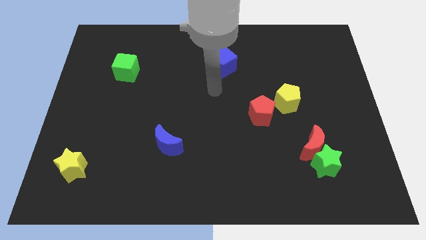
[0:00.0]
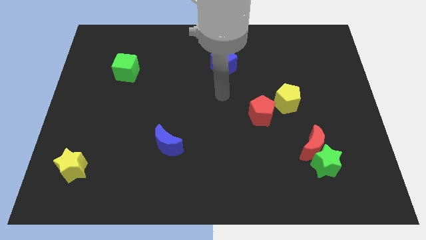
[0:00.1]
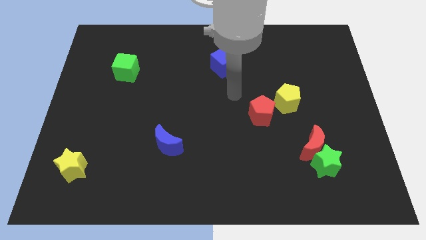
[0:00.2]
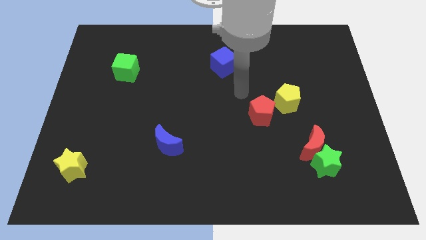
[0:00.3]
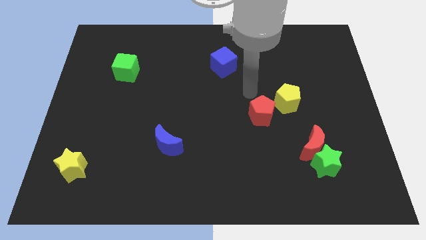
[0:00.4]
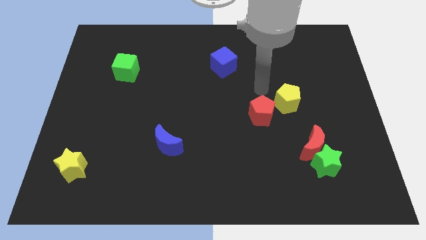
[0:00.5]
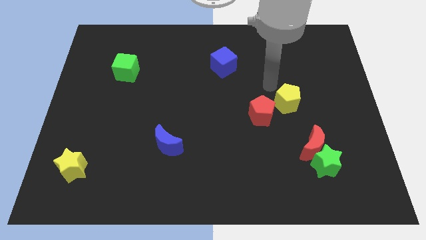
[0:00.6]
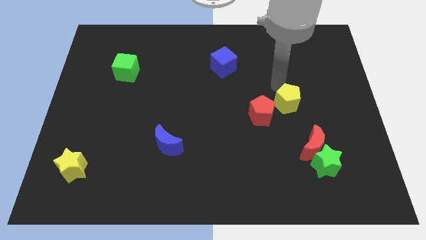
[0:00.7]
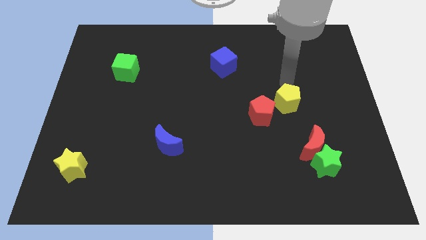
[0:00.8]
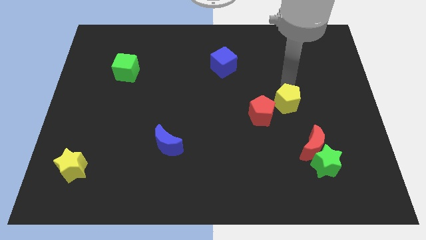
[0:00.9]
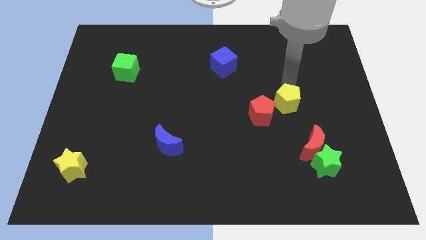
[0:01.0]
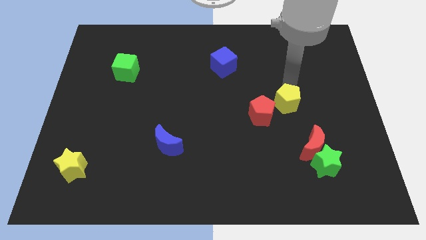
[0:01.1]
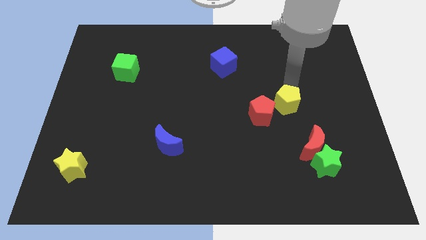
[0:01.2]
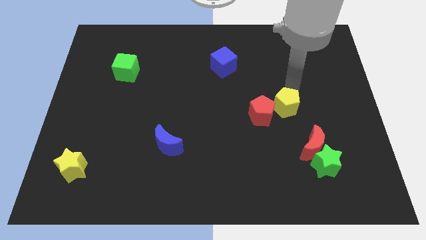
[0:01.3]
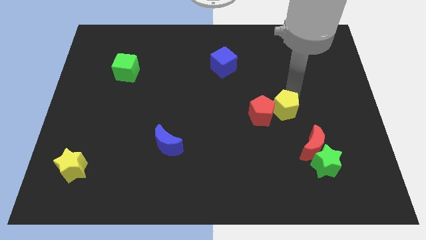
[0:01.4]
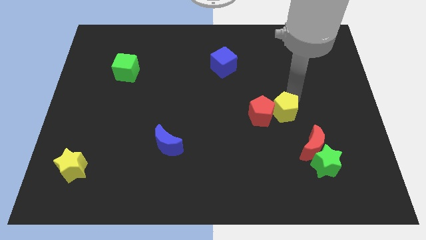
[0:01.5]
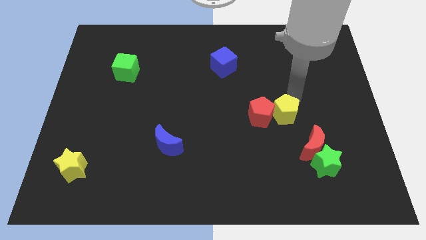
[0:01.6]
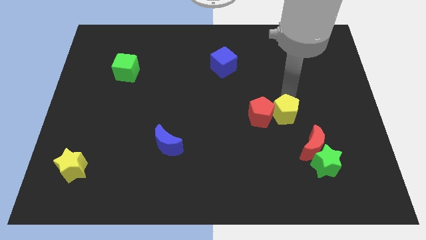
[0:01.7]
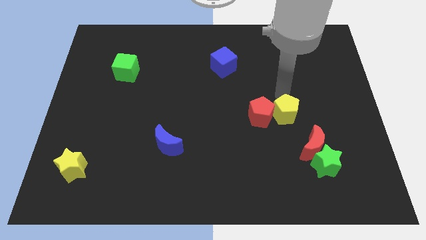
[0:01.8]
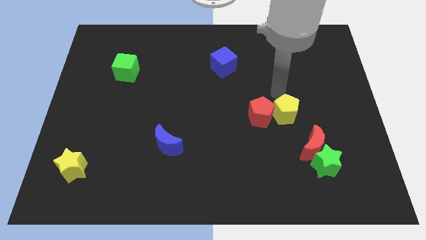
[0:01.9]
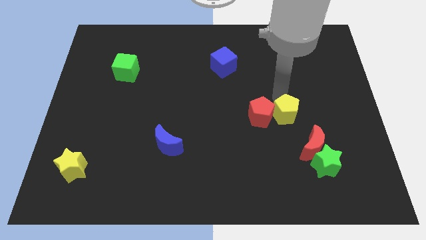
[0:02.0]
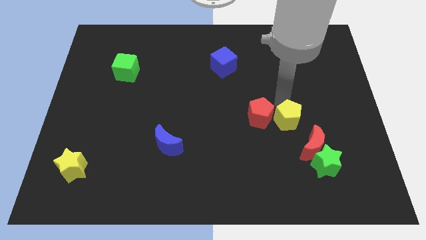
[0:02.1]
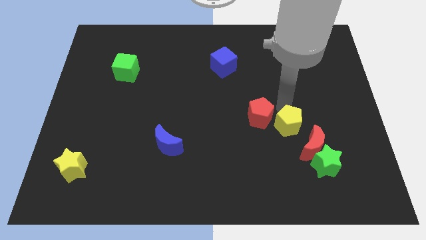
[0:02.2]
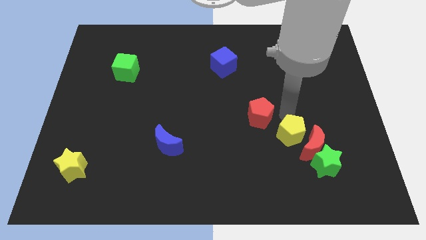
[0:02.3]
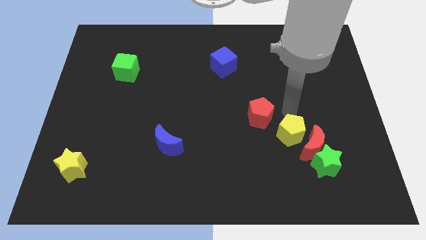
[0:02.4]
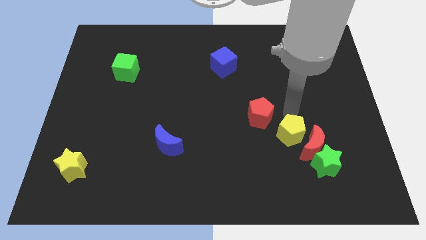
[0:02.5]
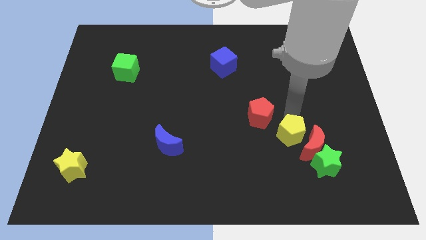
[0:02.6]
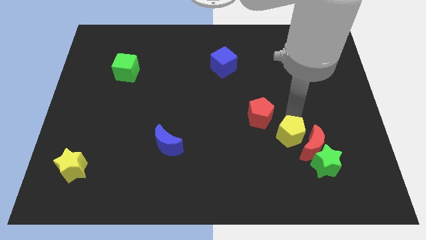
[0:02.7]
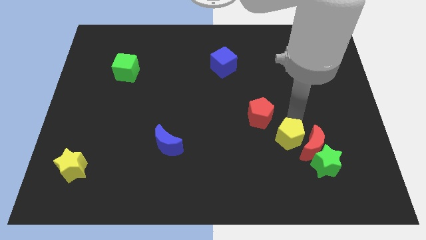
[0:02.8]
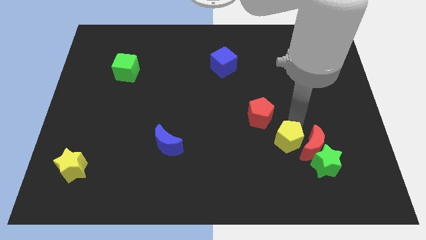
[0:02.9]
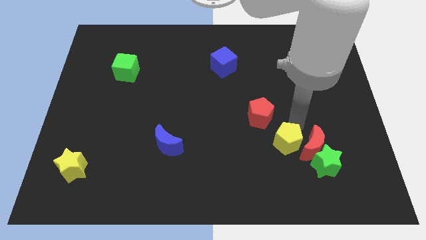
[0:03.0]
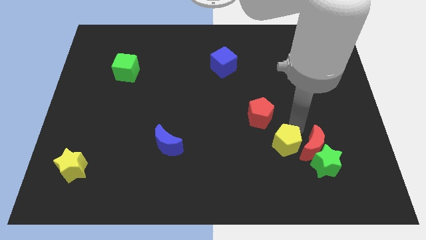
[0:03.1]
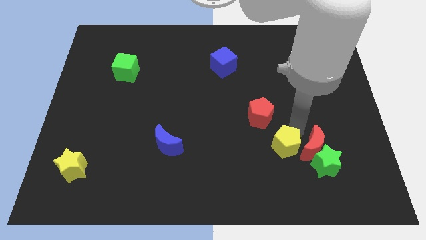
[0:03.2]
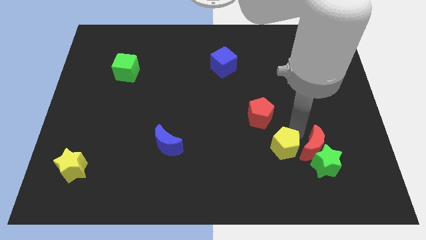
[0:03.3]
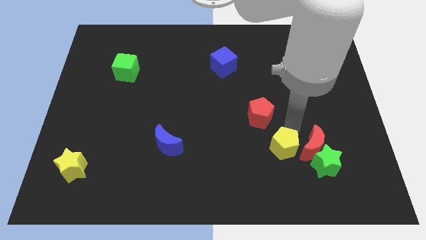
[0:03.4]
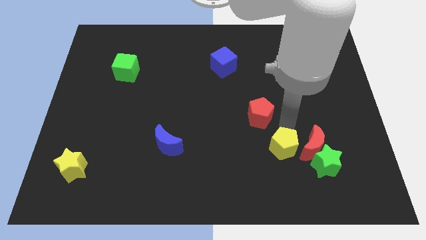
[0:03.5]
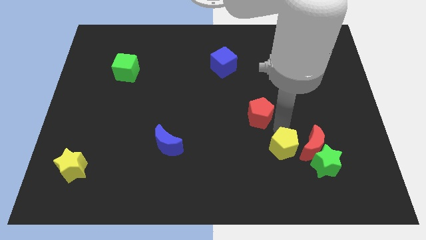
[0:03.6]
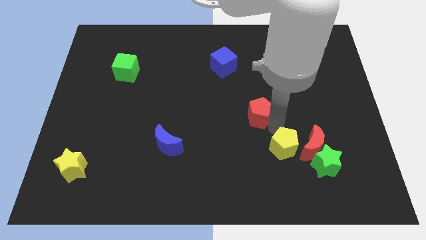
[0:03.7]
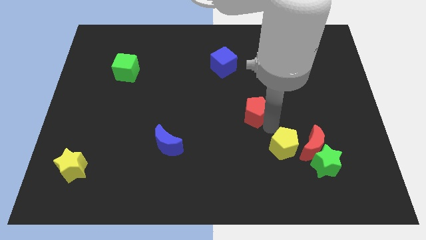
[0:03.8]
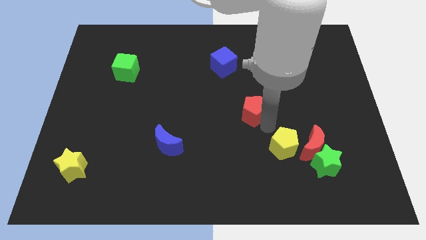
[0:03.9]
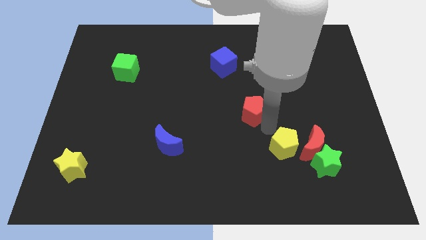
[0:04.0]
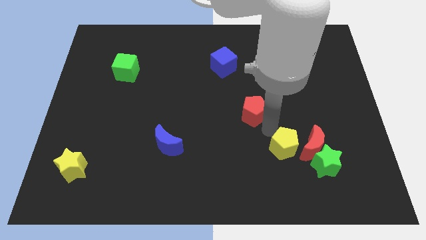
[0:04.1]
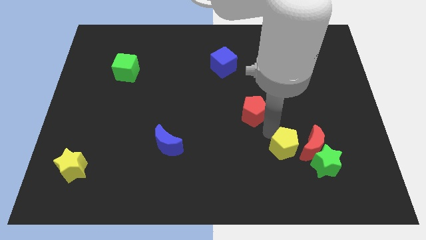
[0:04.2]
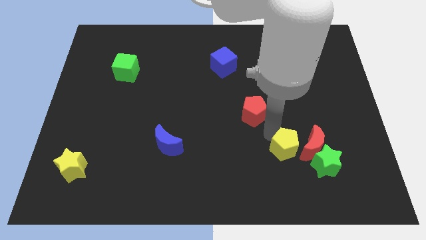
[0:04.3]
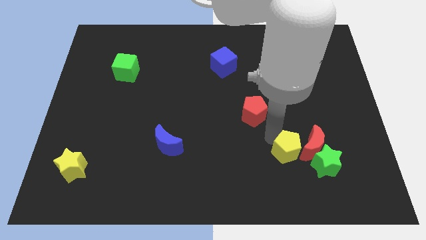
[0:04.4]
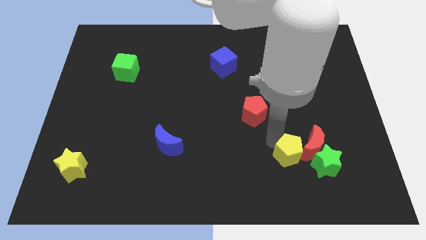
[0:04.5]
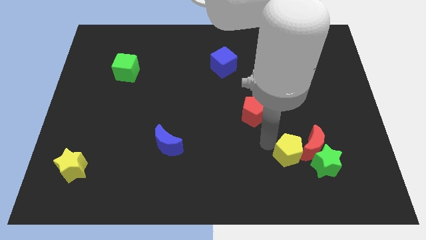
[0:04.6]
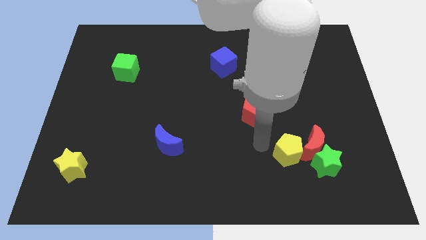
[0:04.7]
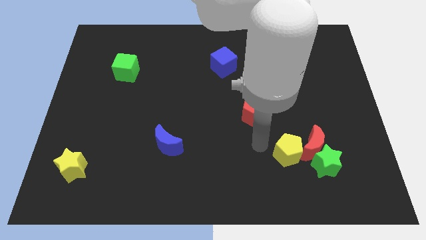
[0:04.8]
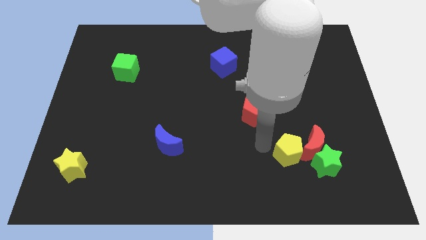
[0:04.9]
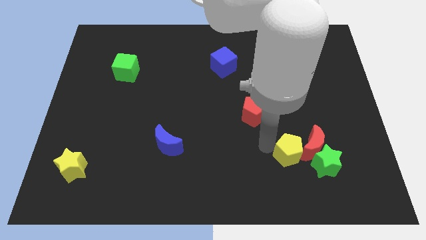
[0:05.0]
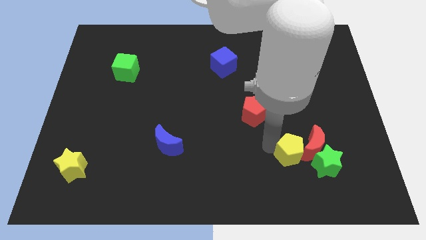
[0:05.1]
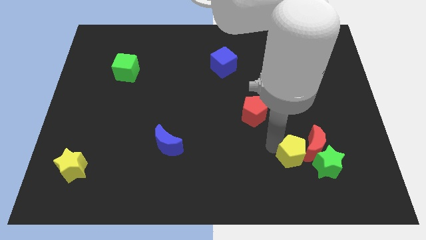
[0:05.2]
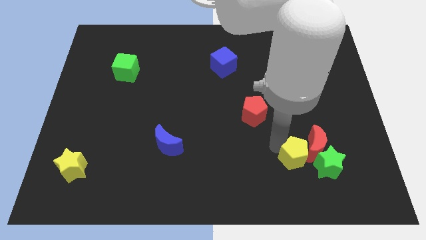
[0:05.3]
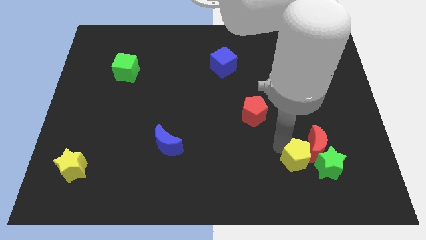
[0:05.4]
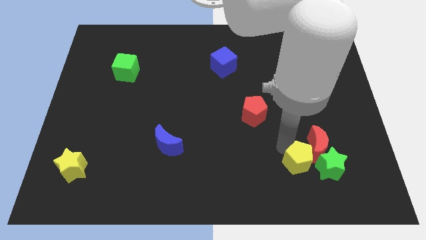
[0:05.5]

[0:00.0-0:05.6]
put the yellow pentagon towards the green star
